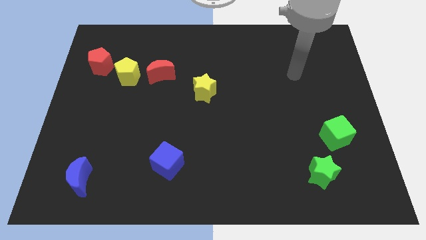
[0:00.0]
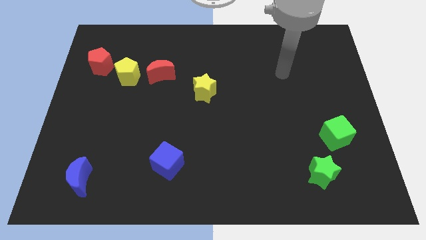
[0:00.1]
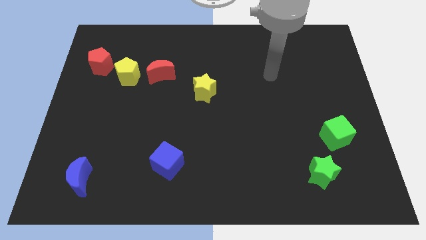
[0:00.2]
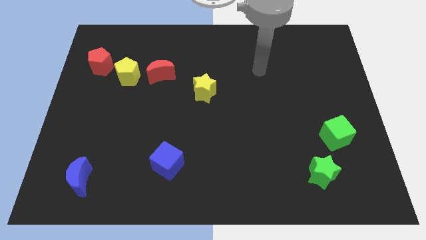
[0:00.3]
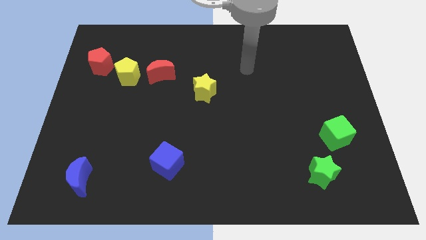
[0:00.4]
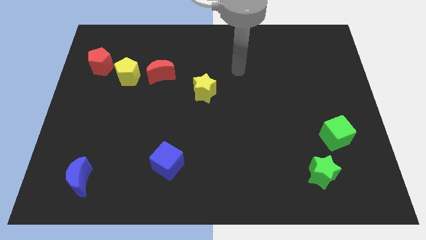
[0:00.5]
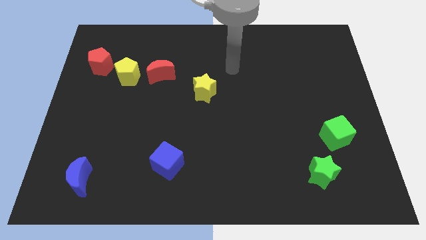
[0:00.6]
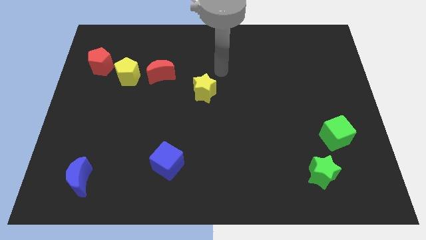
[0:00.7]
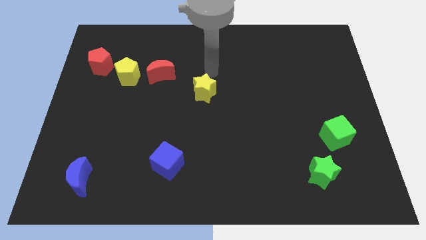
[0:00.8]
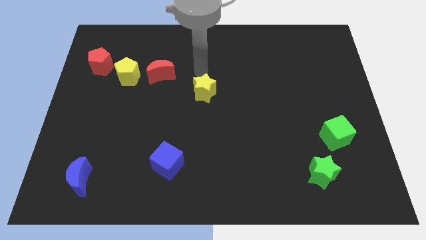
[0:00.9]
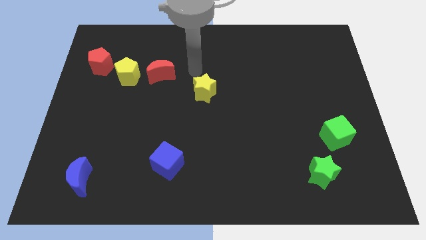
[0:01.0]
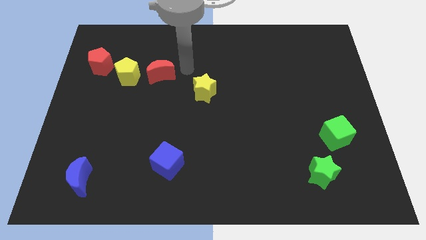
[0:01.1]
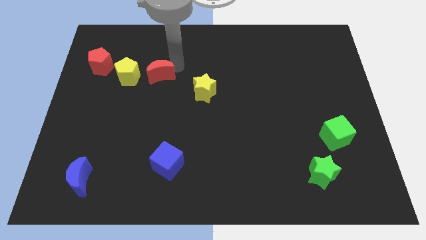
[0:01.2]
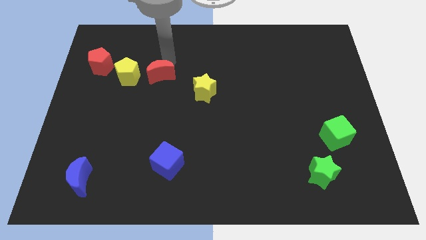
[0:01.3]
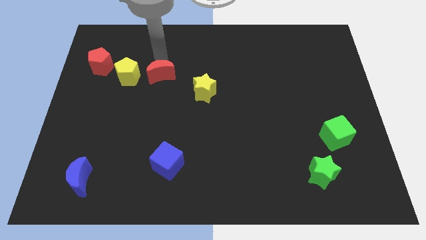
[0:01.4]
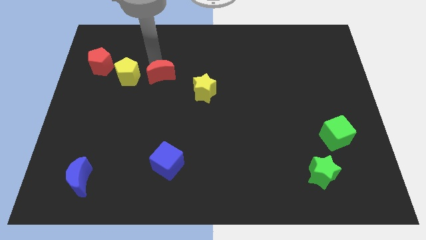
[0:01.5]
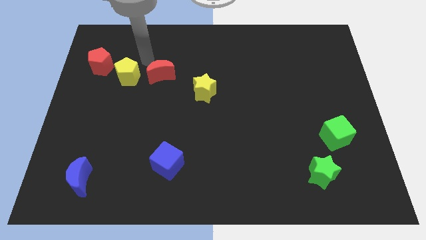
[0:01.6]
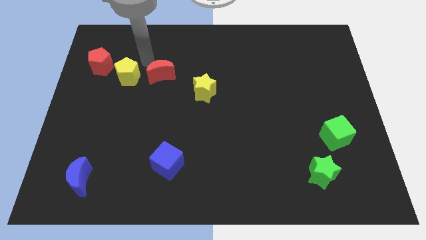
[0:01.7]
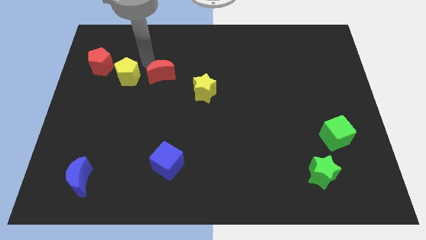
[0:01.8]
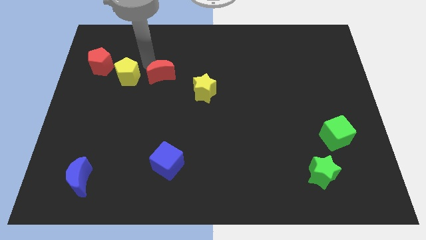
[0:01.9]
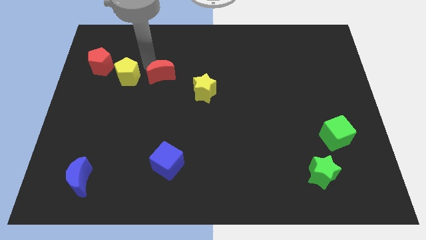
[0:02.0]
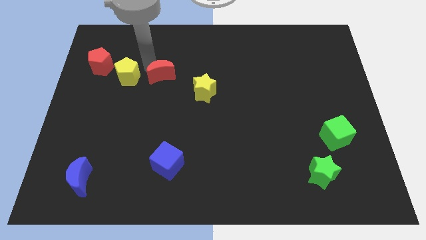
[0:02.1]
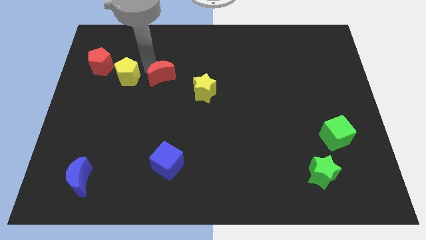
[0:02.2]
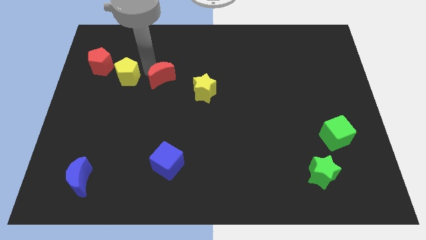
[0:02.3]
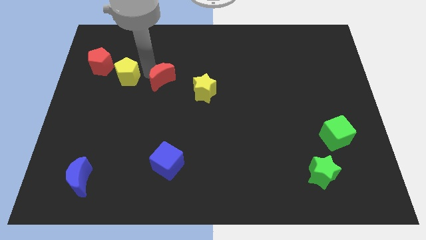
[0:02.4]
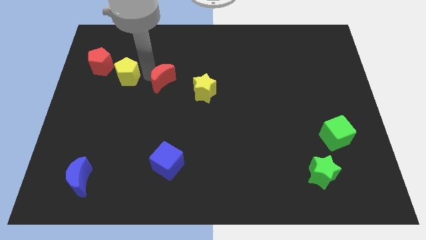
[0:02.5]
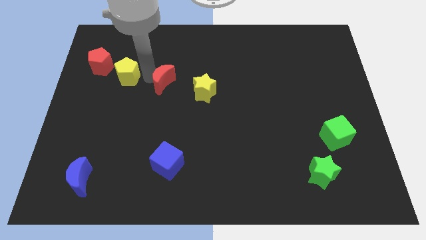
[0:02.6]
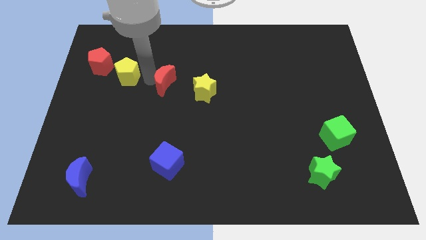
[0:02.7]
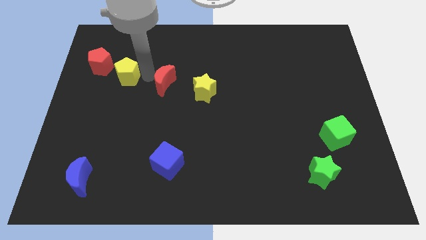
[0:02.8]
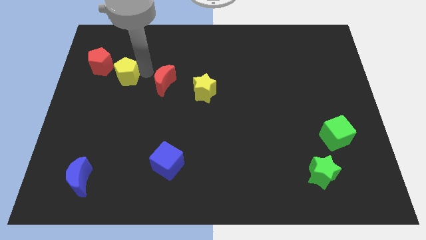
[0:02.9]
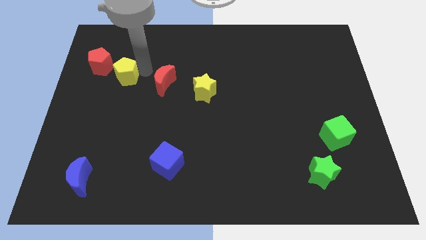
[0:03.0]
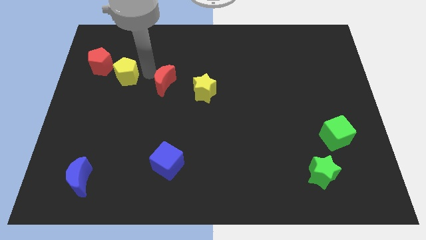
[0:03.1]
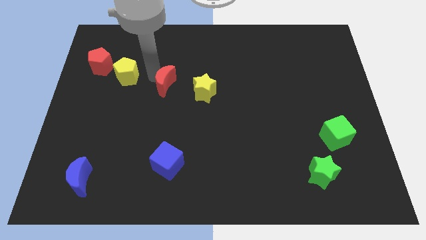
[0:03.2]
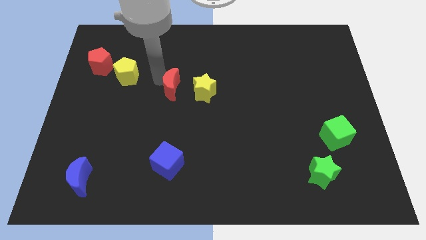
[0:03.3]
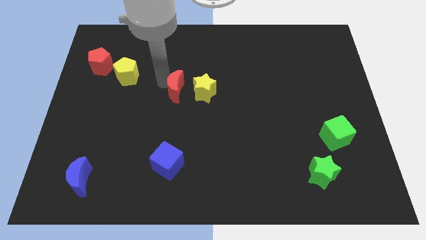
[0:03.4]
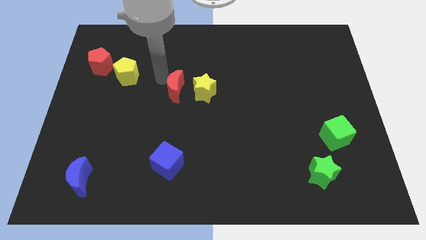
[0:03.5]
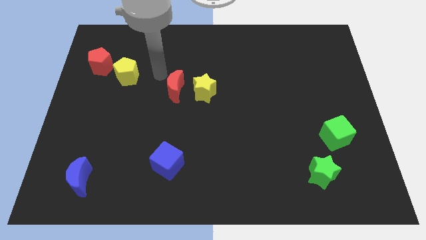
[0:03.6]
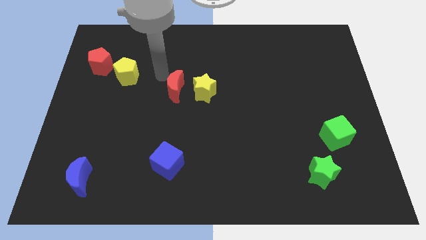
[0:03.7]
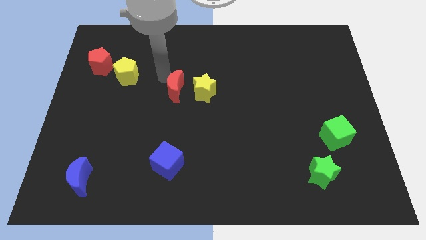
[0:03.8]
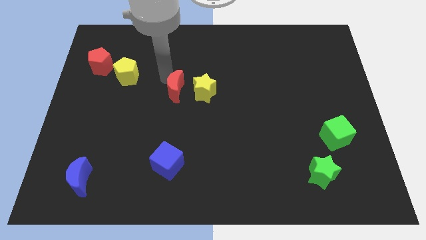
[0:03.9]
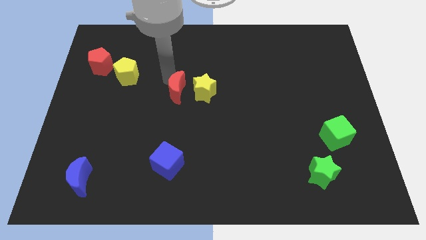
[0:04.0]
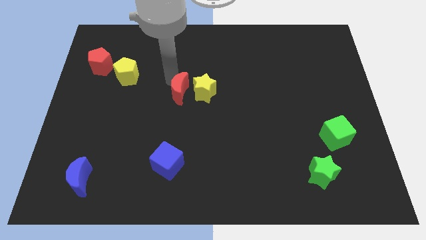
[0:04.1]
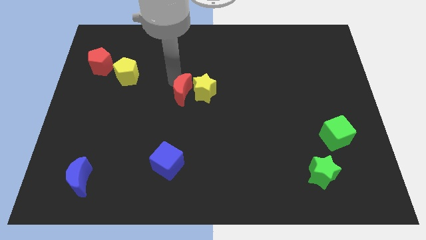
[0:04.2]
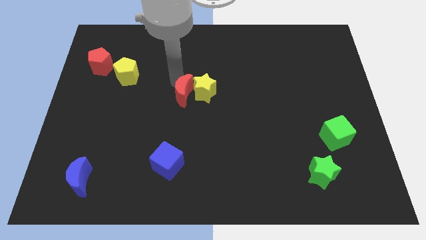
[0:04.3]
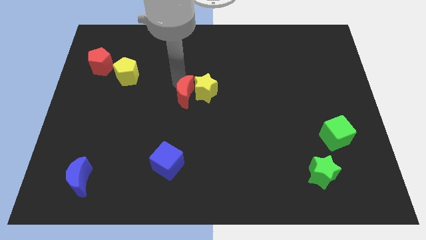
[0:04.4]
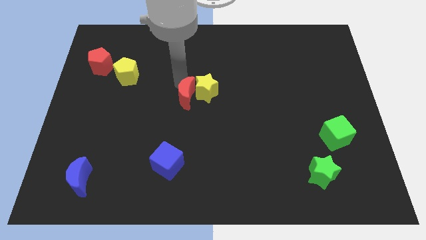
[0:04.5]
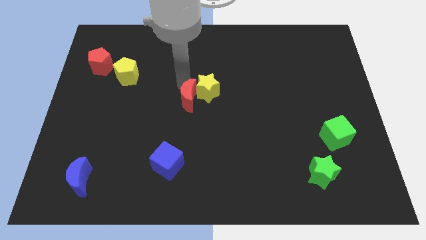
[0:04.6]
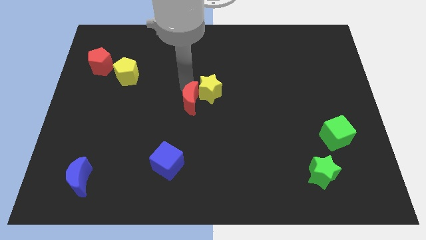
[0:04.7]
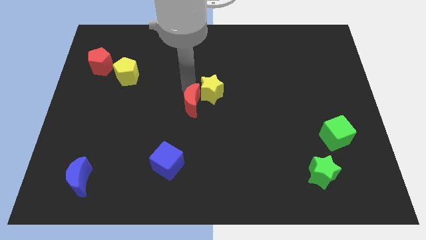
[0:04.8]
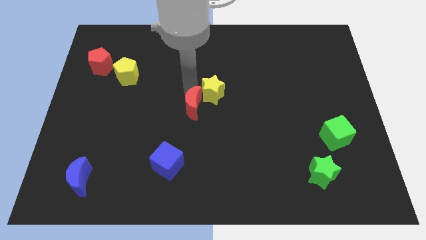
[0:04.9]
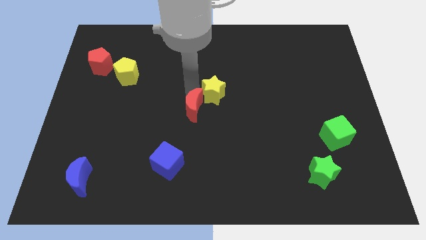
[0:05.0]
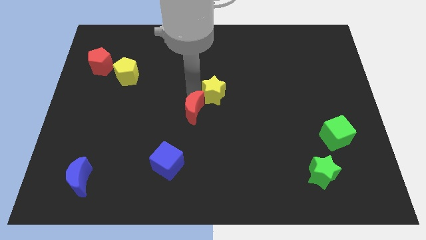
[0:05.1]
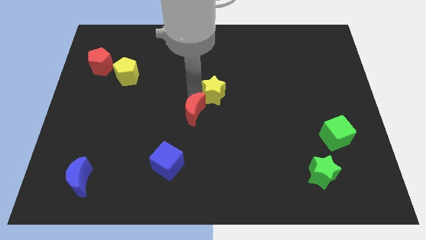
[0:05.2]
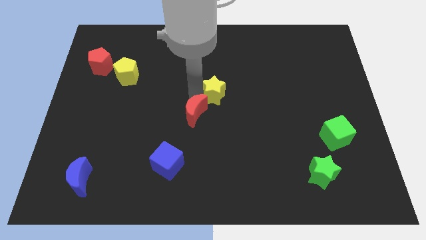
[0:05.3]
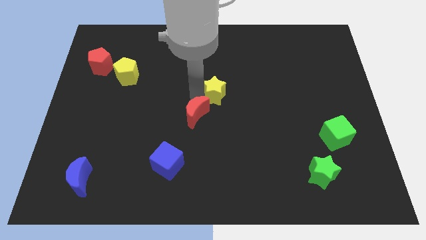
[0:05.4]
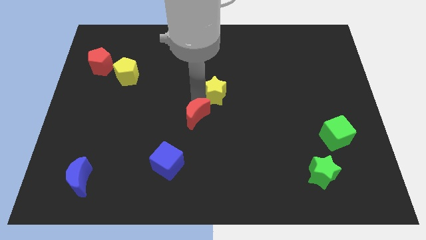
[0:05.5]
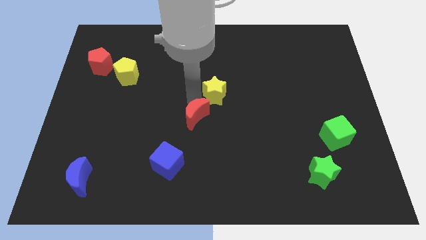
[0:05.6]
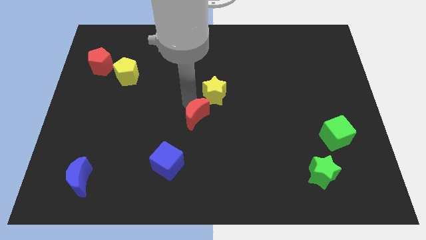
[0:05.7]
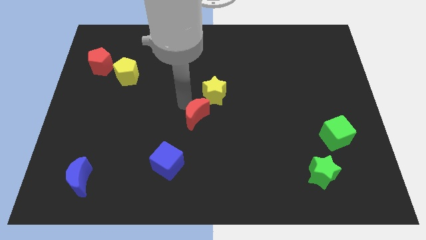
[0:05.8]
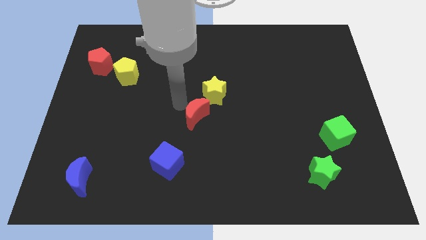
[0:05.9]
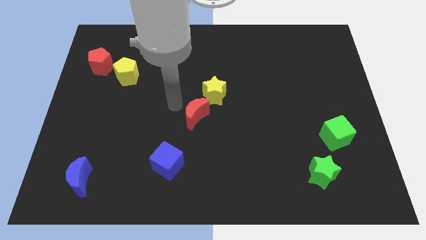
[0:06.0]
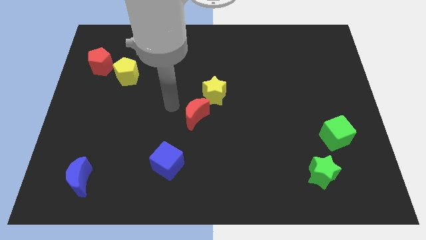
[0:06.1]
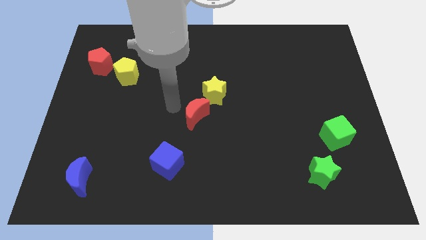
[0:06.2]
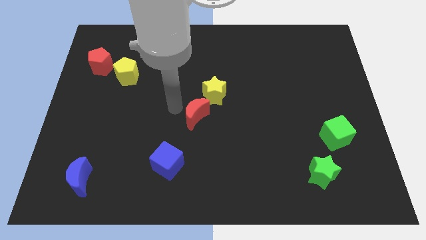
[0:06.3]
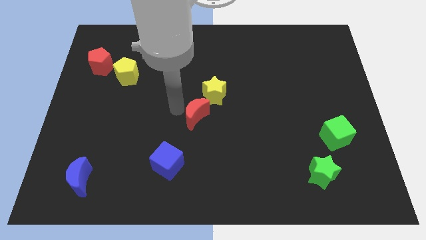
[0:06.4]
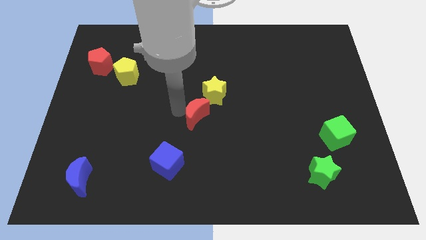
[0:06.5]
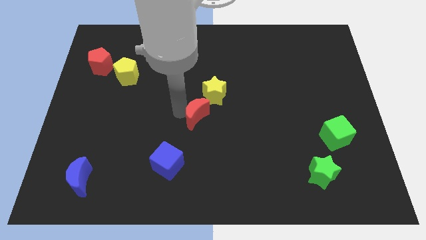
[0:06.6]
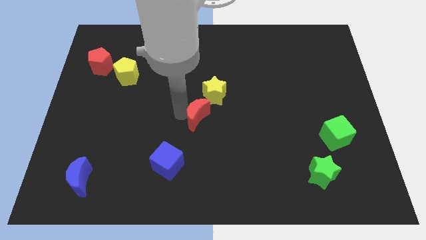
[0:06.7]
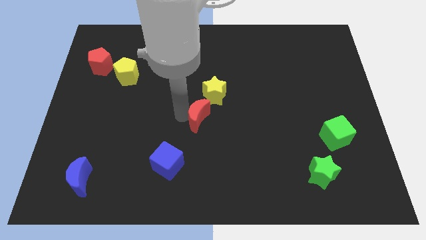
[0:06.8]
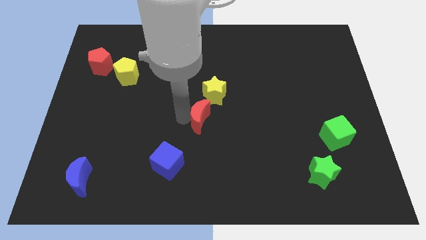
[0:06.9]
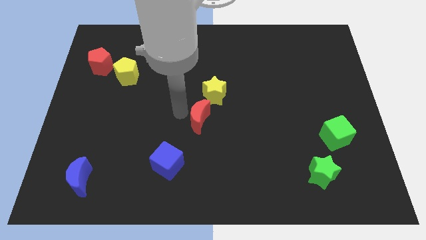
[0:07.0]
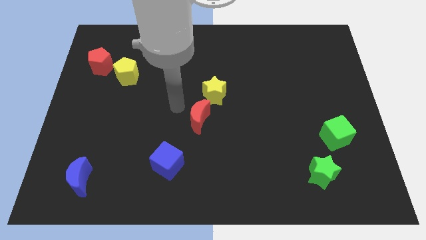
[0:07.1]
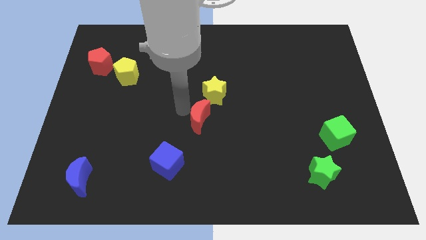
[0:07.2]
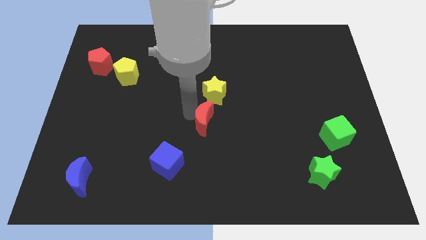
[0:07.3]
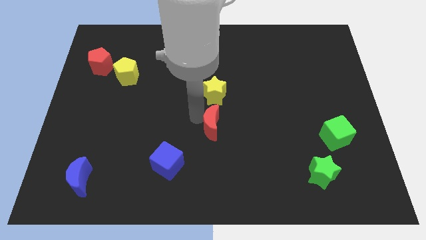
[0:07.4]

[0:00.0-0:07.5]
push the red moon diagonally down and right

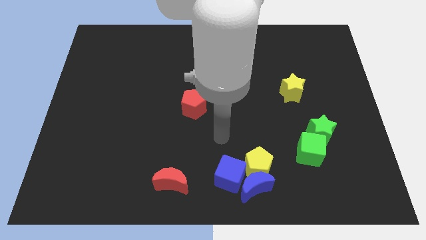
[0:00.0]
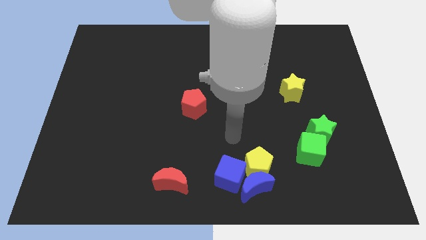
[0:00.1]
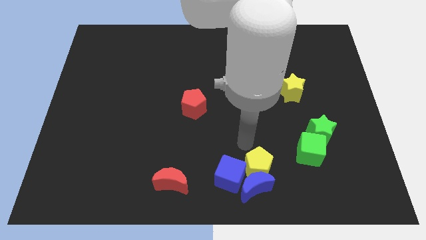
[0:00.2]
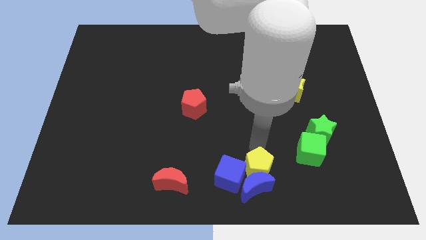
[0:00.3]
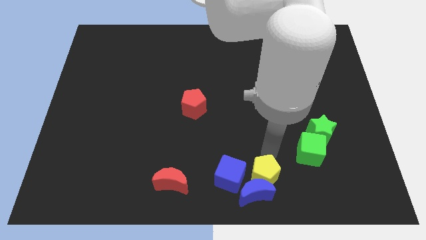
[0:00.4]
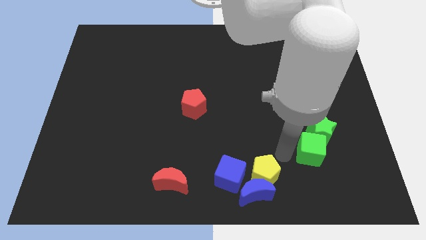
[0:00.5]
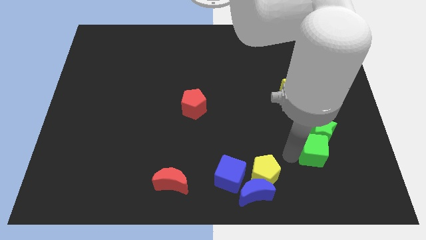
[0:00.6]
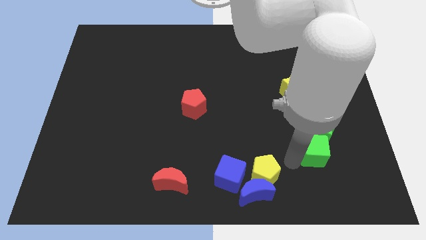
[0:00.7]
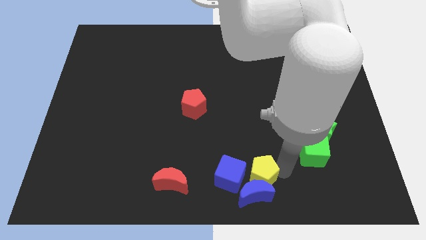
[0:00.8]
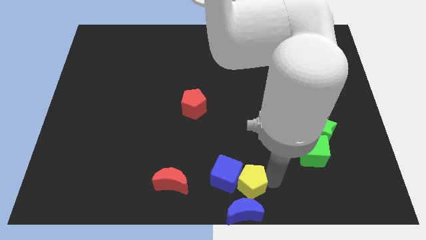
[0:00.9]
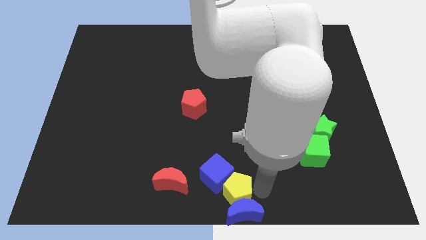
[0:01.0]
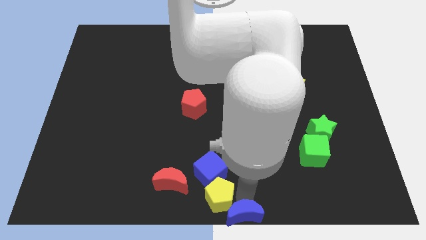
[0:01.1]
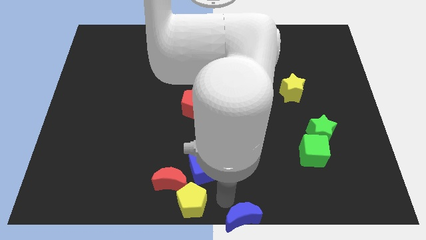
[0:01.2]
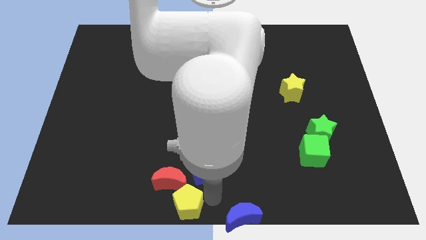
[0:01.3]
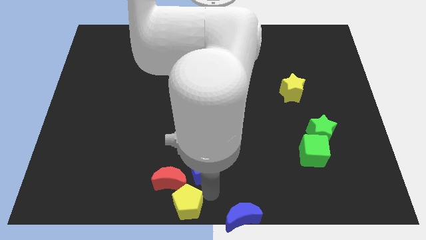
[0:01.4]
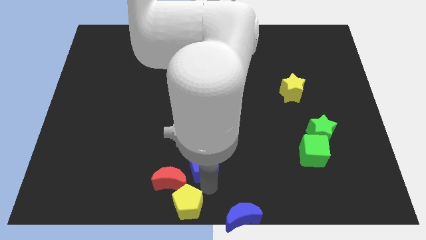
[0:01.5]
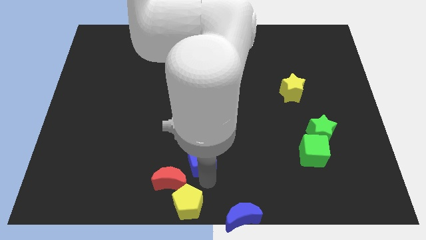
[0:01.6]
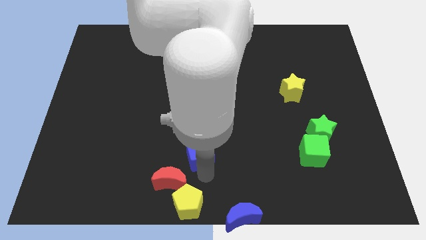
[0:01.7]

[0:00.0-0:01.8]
slightly slide the blue cube diagonally upwards and to the left
